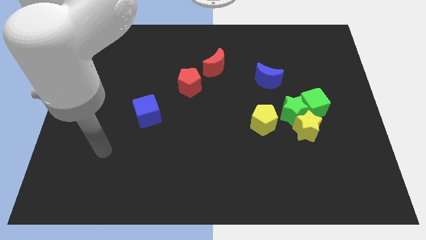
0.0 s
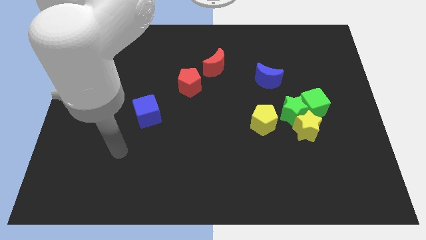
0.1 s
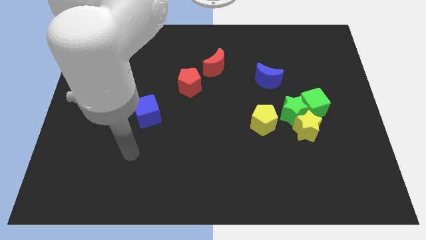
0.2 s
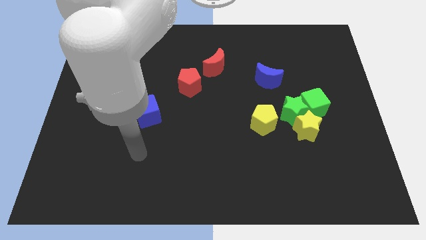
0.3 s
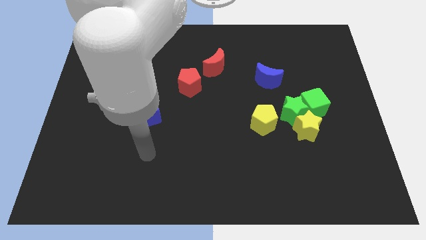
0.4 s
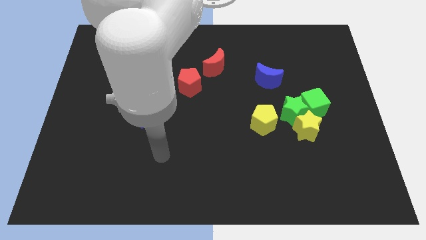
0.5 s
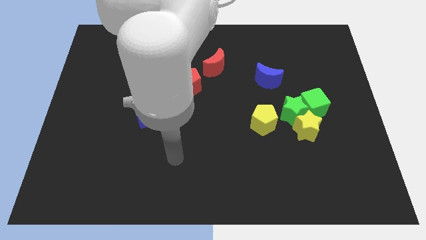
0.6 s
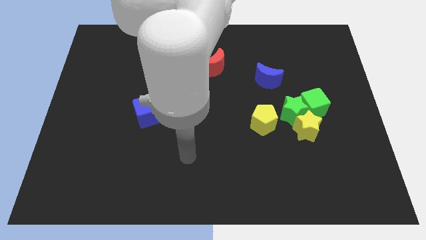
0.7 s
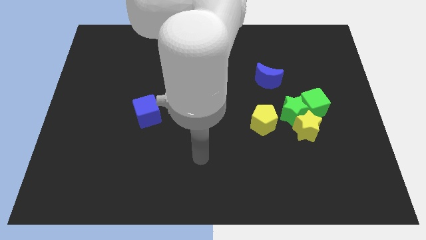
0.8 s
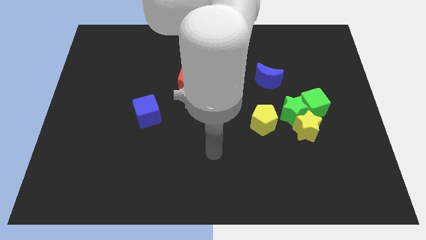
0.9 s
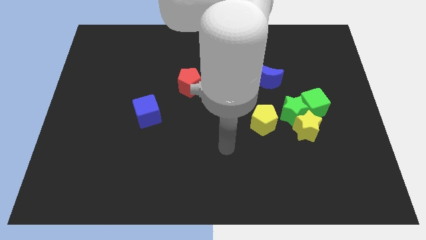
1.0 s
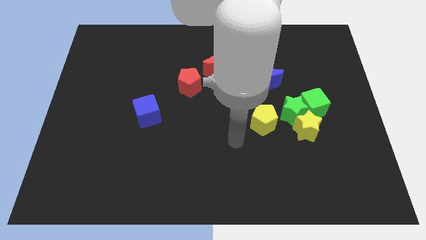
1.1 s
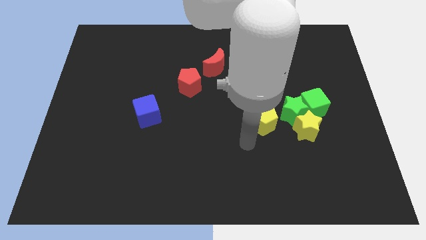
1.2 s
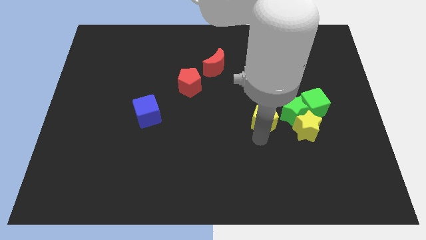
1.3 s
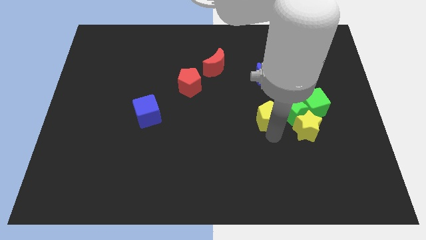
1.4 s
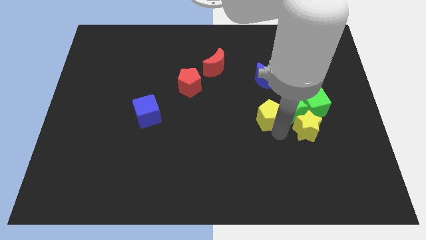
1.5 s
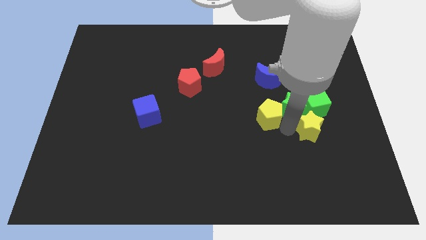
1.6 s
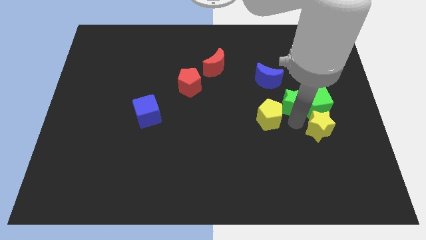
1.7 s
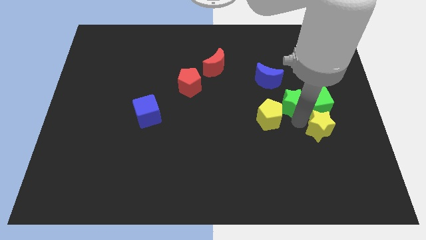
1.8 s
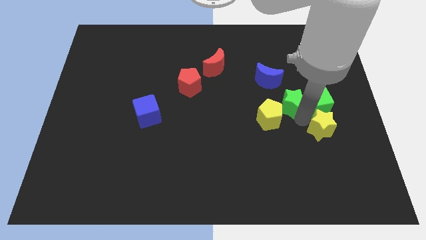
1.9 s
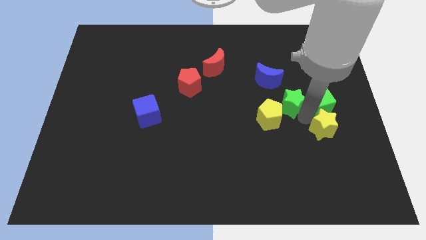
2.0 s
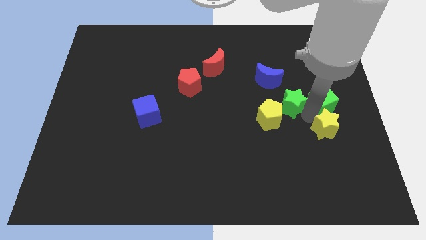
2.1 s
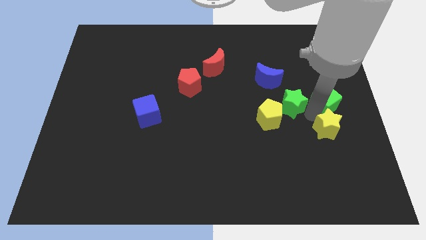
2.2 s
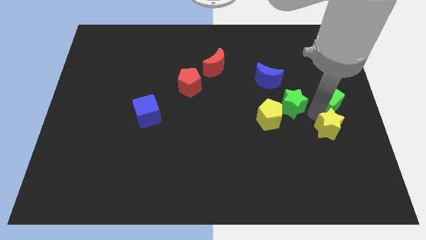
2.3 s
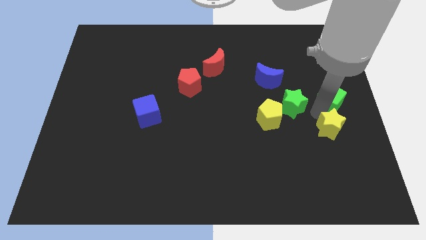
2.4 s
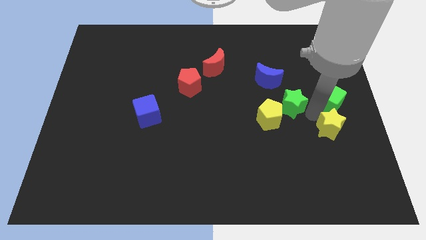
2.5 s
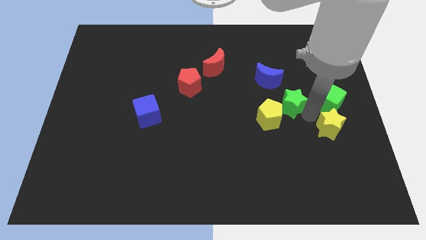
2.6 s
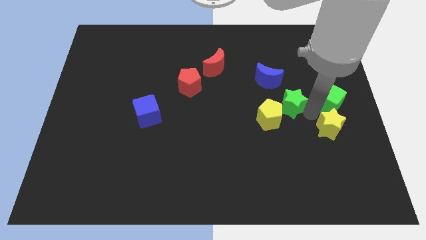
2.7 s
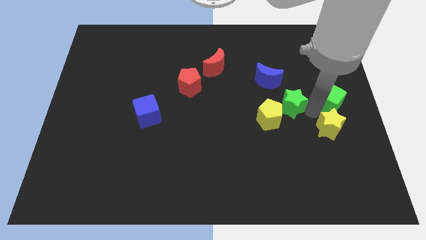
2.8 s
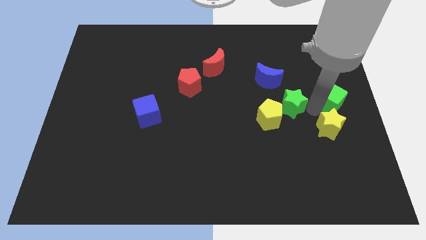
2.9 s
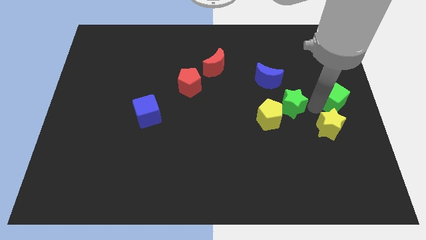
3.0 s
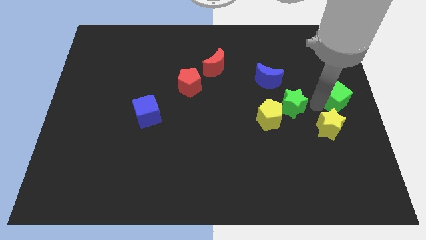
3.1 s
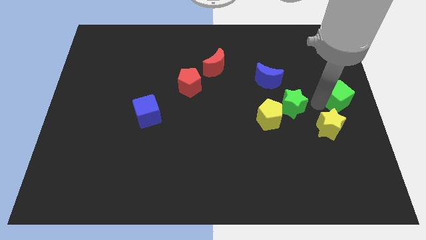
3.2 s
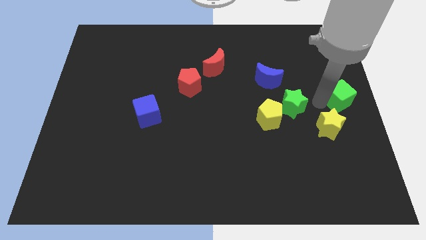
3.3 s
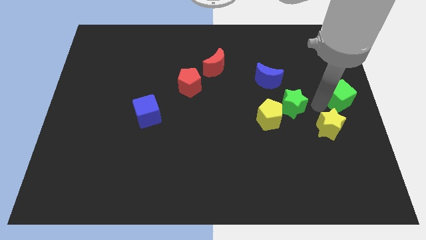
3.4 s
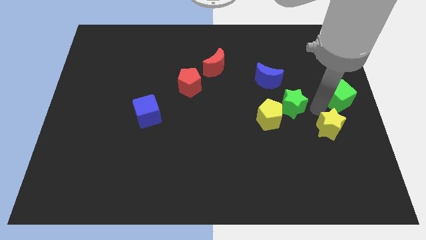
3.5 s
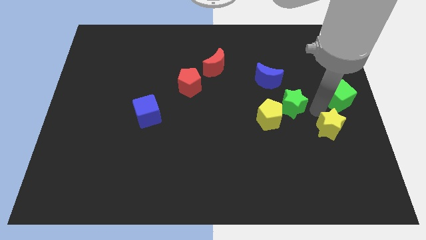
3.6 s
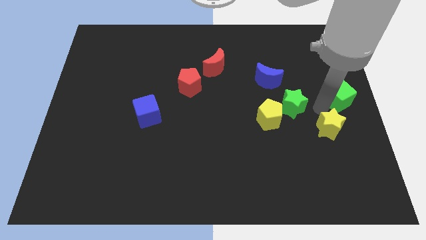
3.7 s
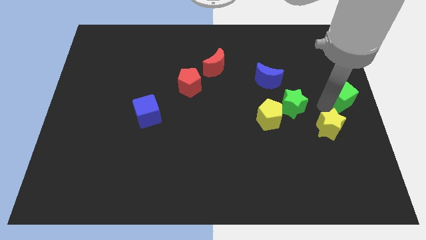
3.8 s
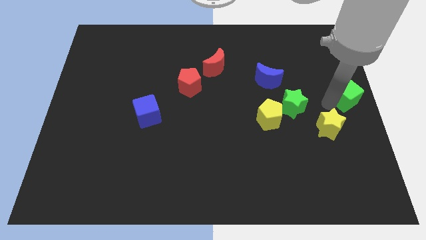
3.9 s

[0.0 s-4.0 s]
move the green cube away from the green star and yellow star

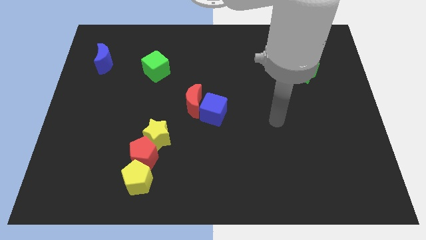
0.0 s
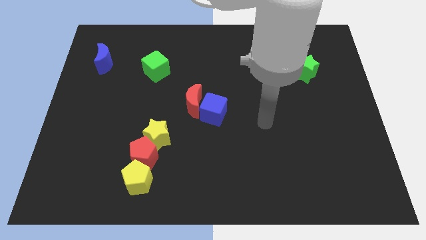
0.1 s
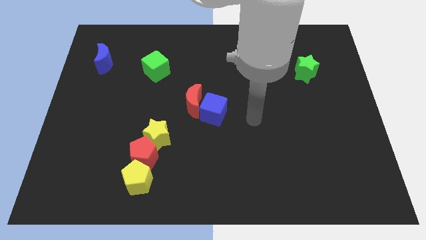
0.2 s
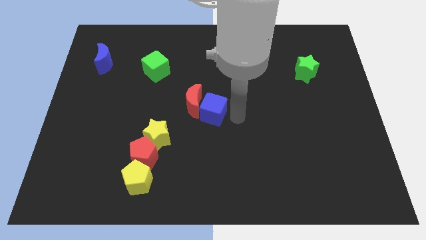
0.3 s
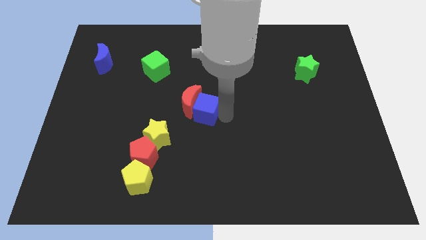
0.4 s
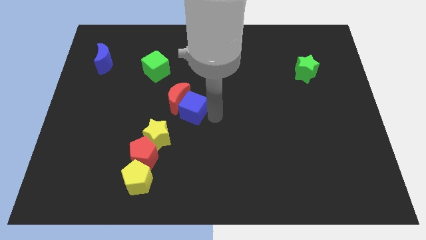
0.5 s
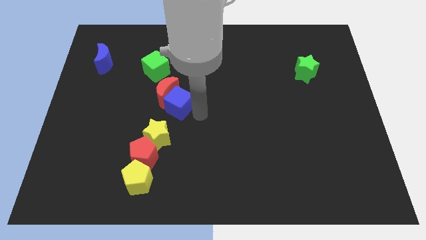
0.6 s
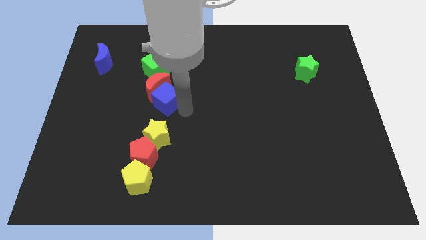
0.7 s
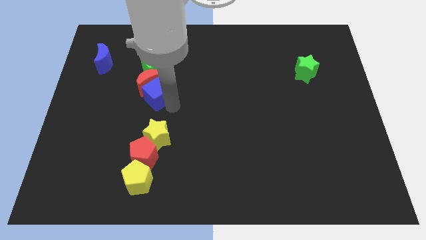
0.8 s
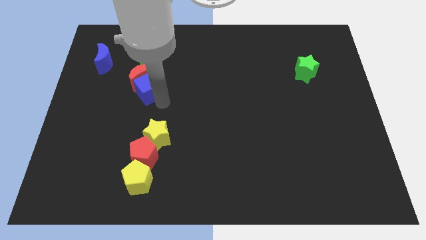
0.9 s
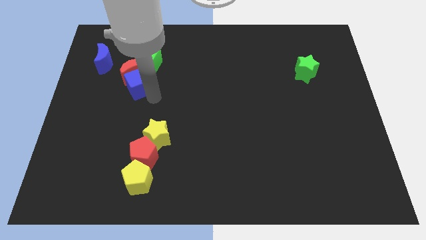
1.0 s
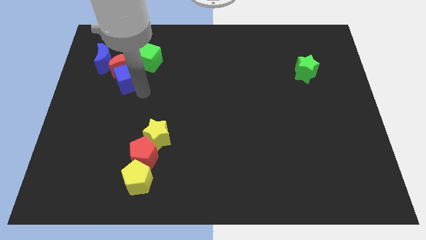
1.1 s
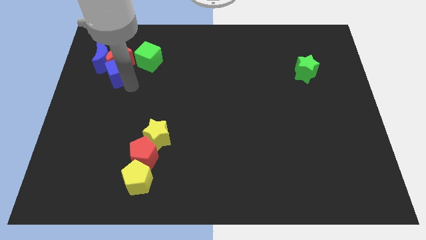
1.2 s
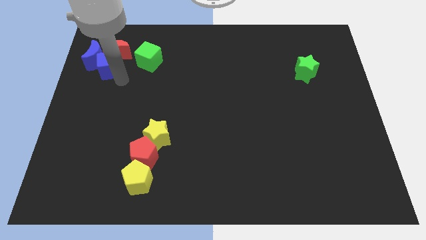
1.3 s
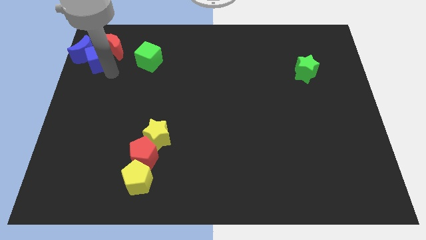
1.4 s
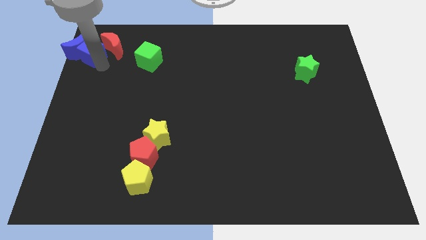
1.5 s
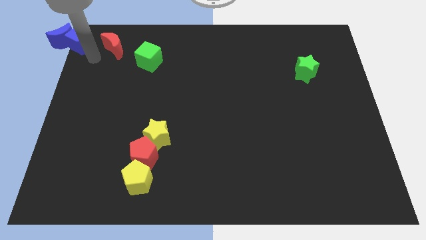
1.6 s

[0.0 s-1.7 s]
move the red moon away from the blue cube

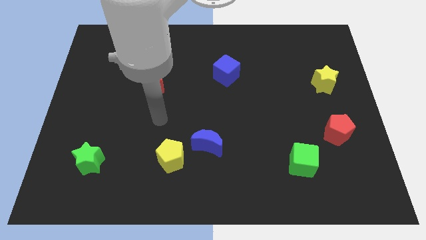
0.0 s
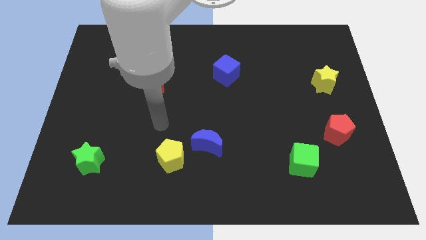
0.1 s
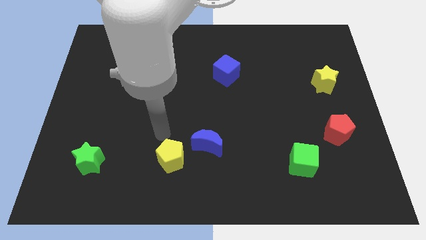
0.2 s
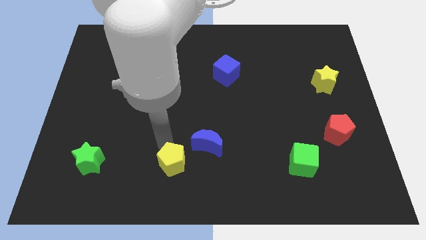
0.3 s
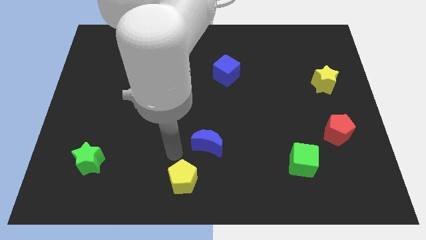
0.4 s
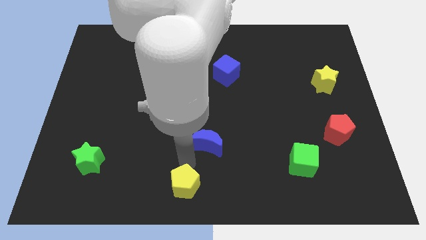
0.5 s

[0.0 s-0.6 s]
pull the blue moon apart from the yellow pentagon

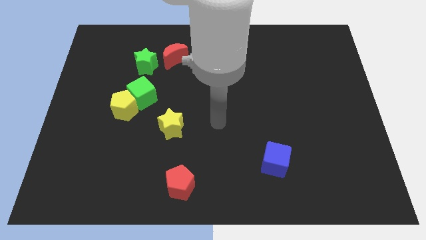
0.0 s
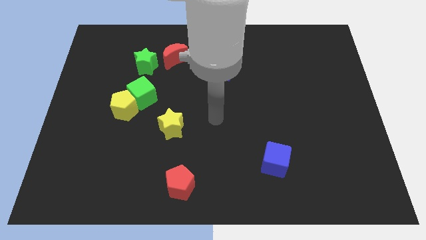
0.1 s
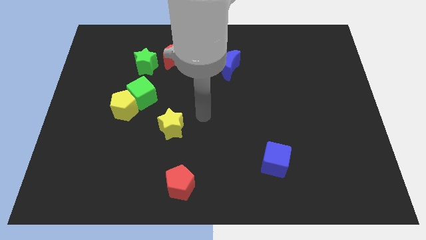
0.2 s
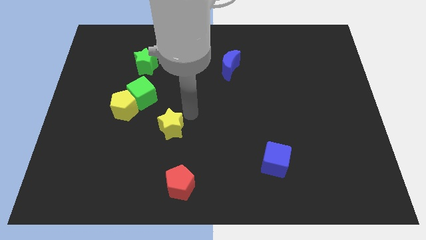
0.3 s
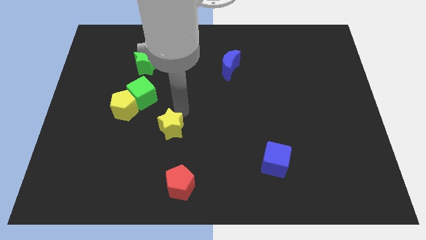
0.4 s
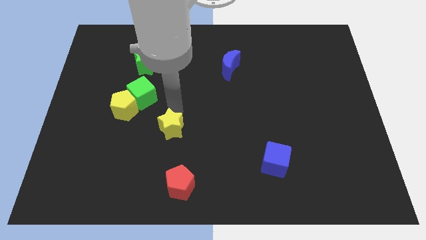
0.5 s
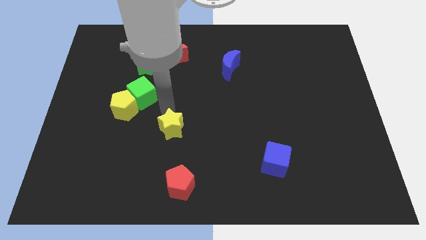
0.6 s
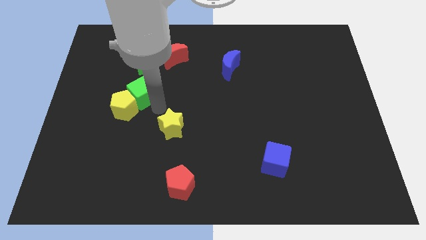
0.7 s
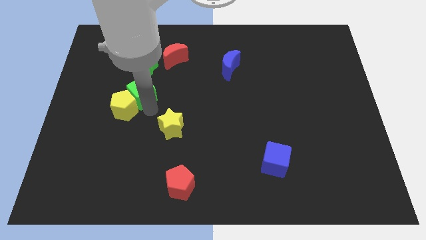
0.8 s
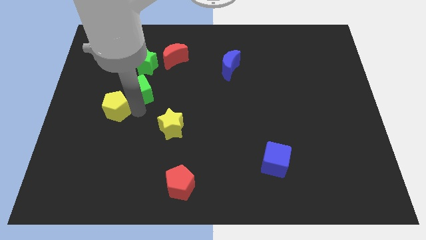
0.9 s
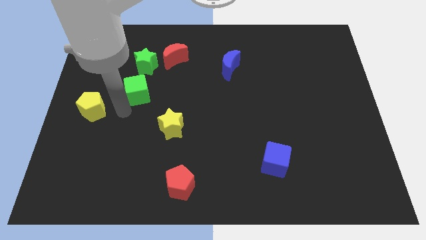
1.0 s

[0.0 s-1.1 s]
separate the green cube from the yellow pentagon

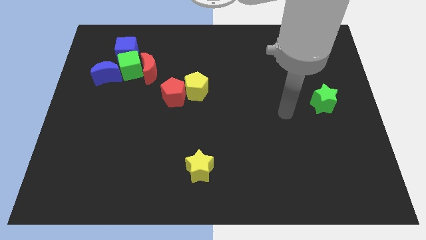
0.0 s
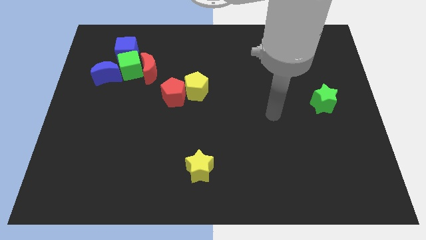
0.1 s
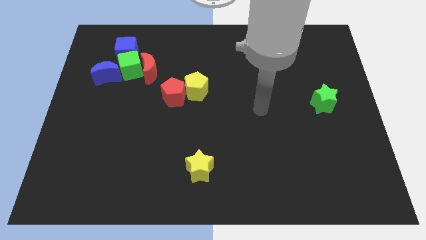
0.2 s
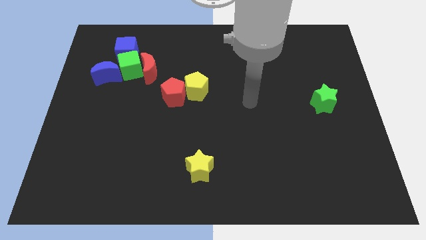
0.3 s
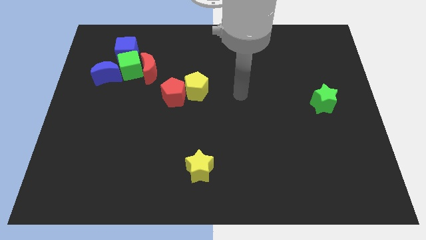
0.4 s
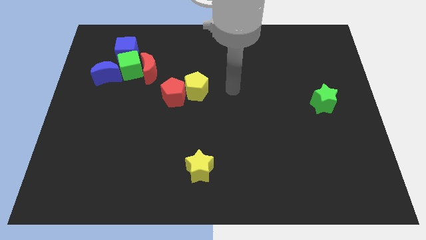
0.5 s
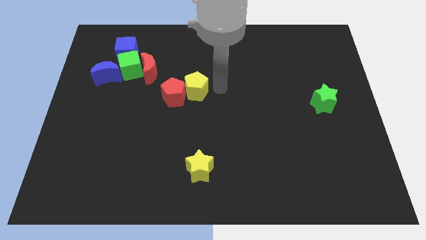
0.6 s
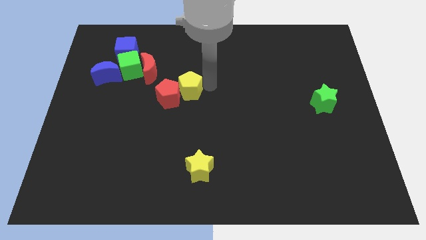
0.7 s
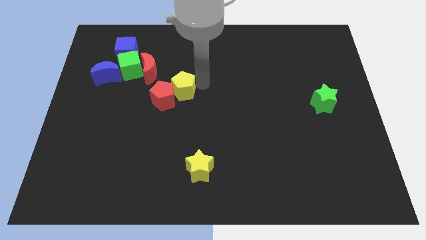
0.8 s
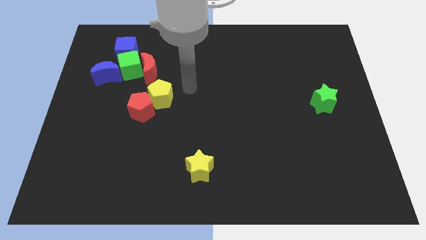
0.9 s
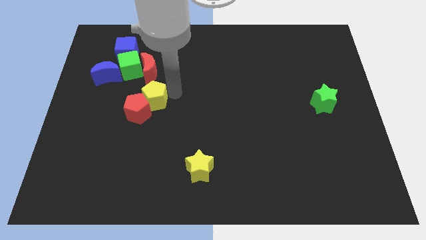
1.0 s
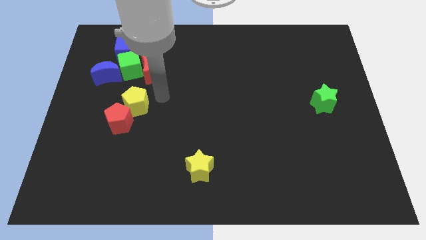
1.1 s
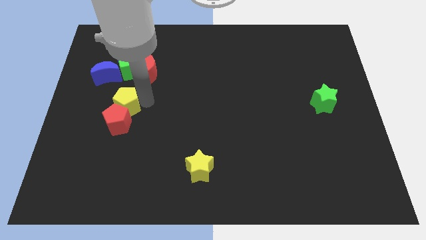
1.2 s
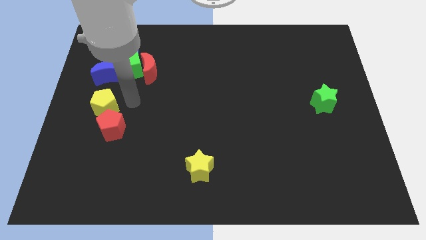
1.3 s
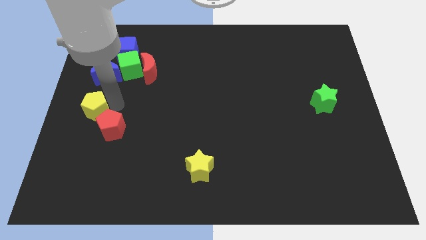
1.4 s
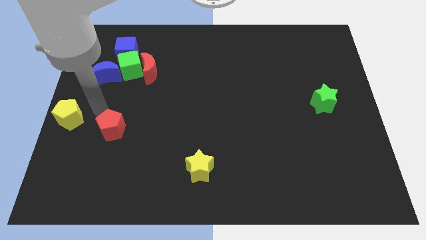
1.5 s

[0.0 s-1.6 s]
move the red pentagon away from the yellow pentagon

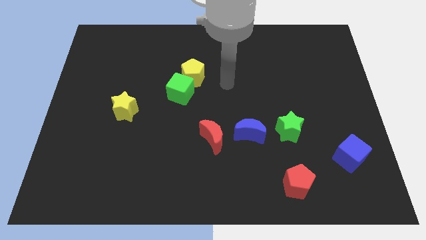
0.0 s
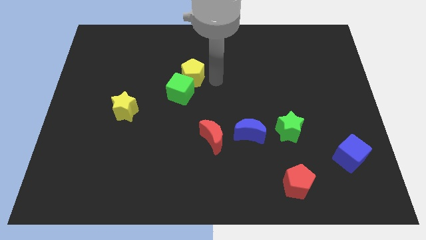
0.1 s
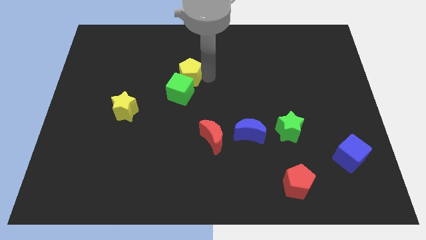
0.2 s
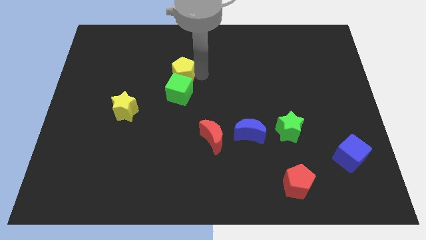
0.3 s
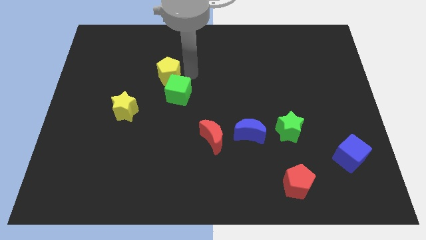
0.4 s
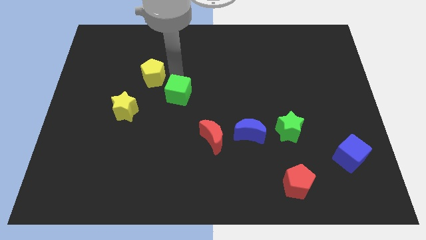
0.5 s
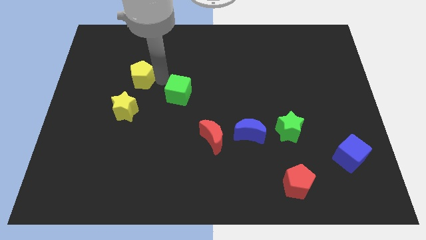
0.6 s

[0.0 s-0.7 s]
move the green cube away from the yellow pentagon
